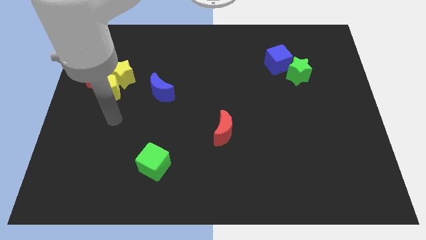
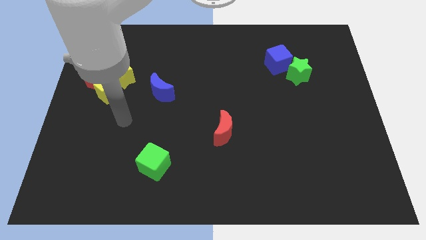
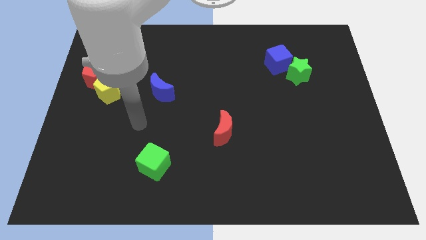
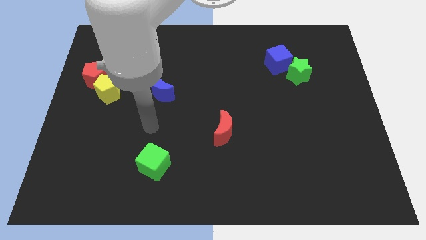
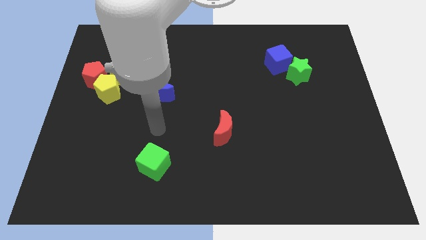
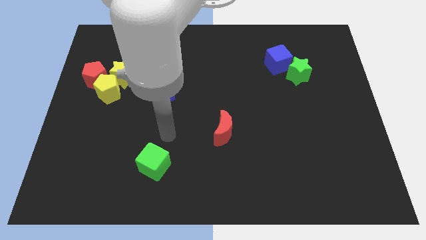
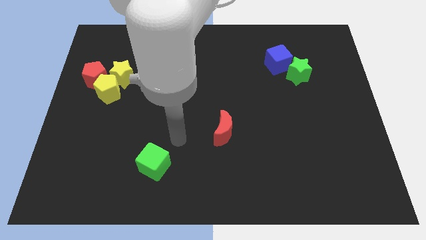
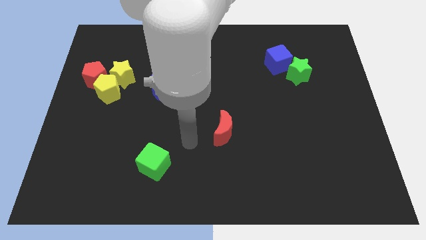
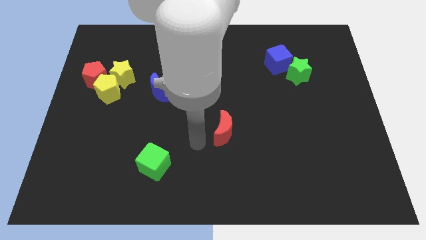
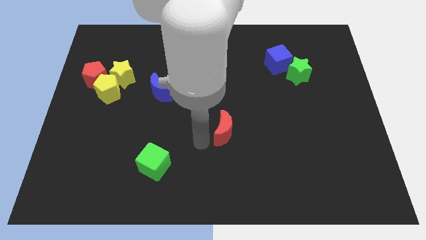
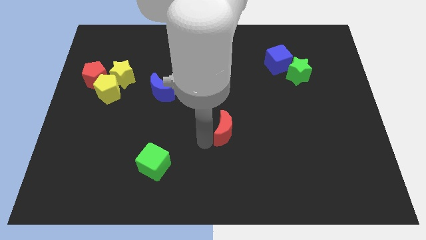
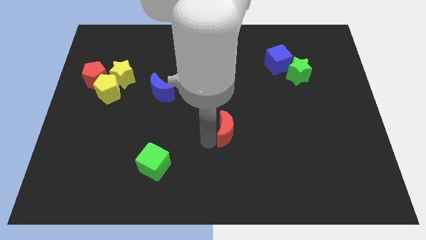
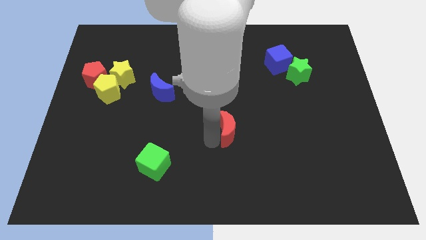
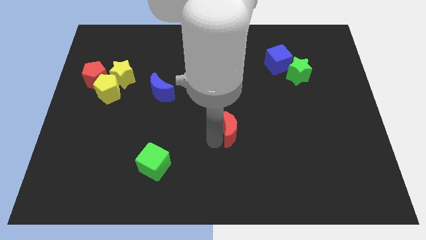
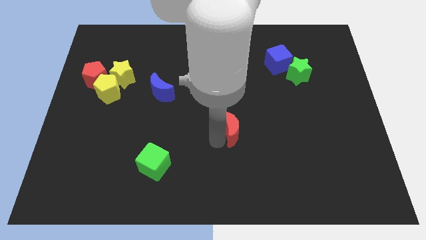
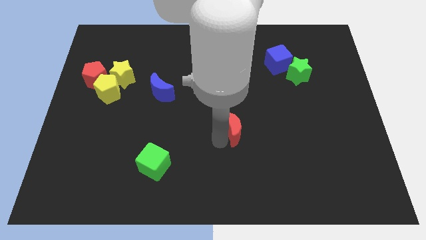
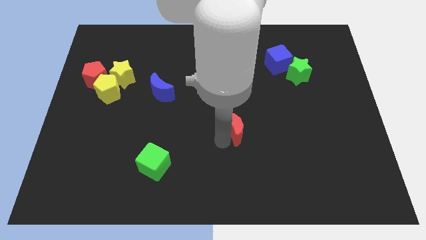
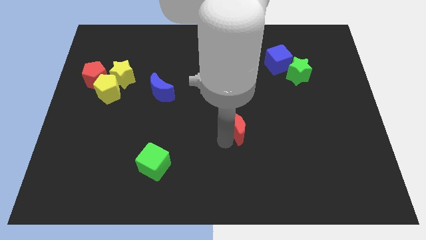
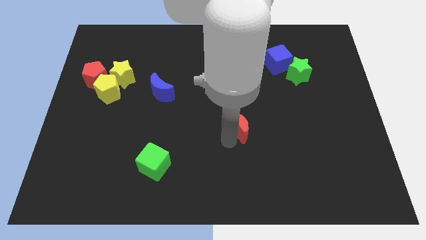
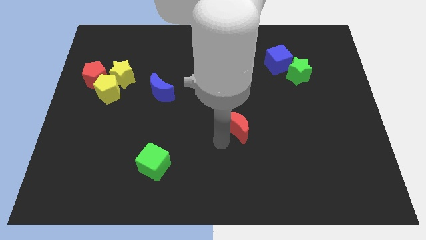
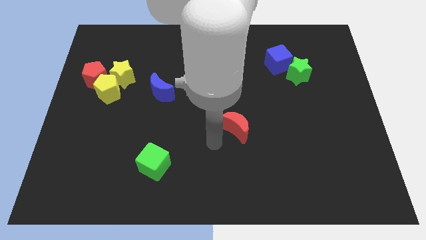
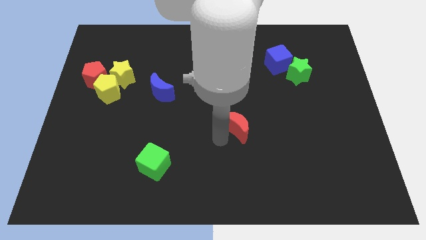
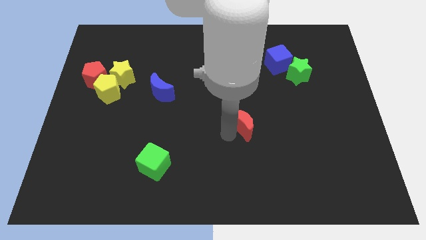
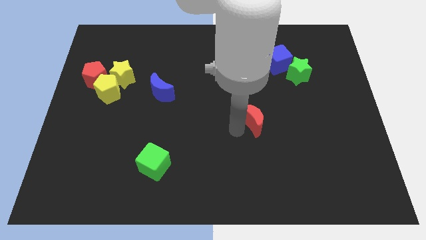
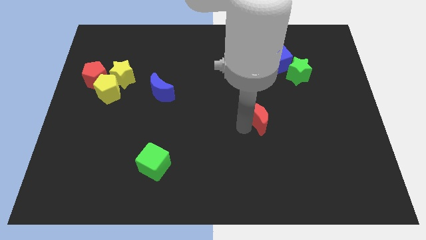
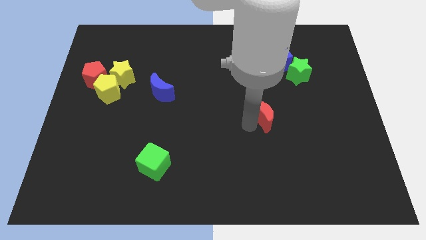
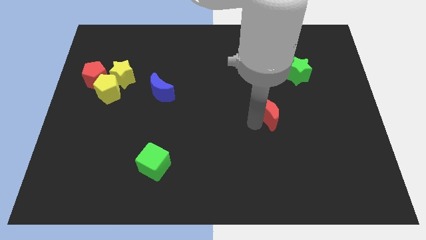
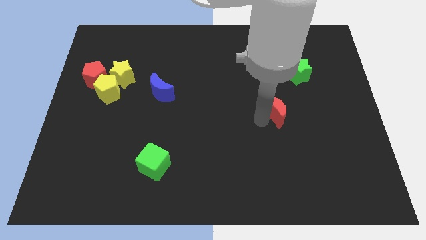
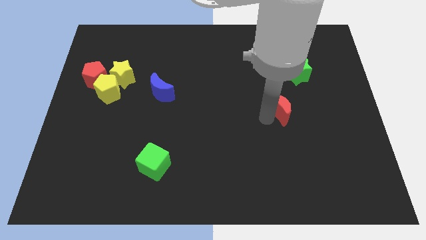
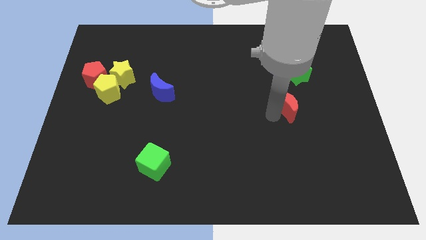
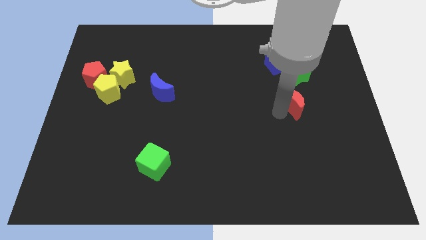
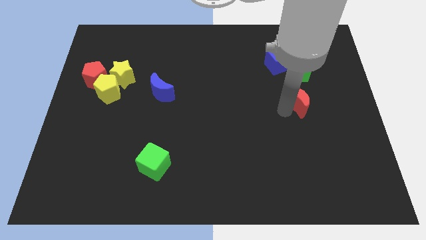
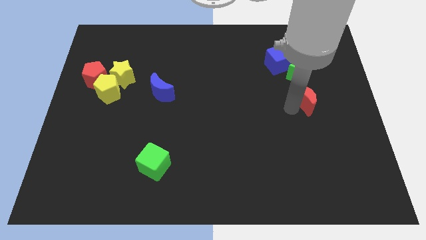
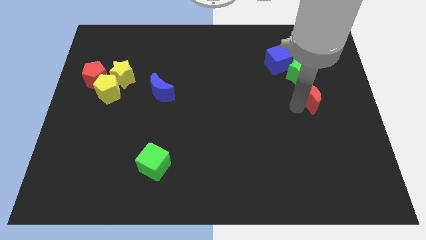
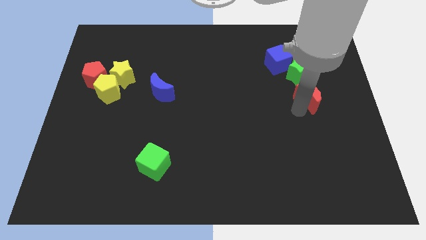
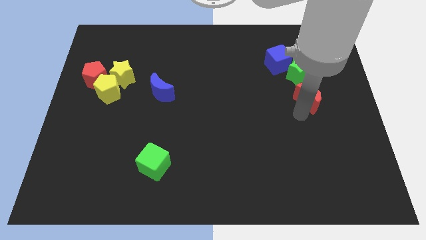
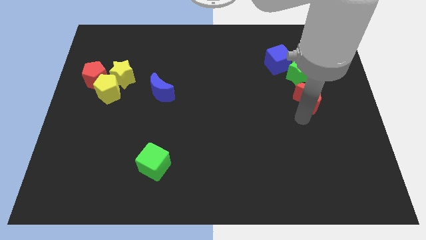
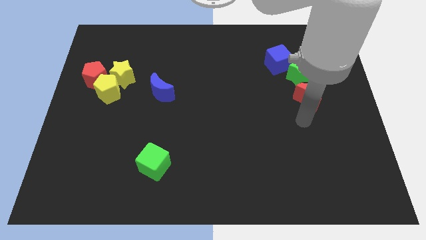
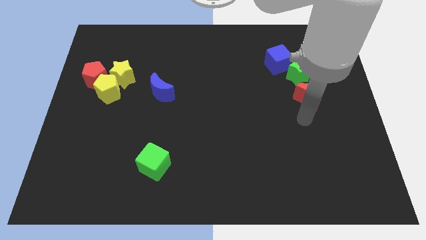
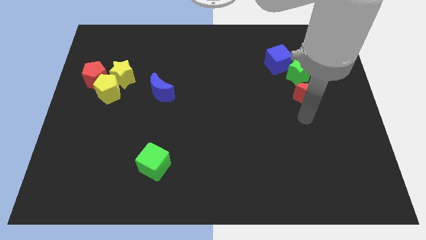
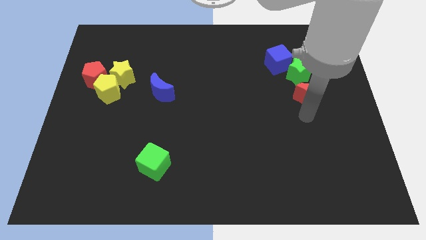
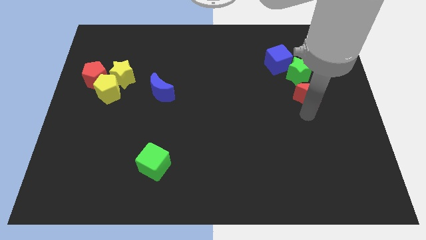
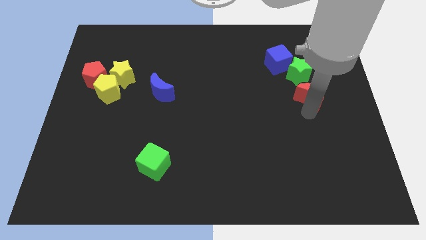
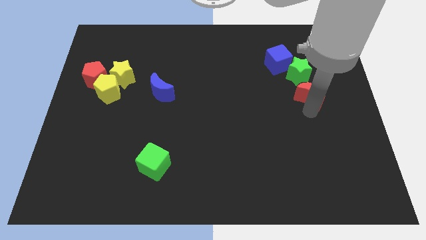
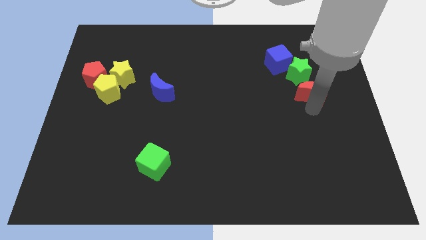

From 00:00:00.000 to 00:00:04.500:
slide the red moon upwards and right

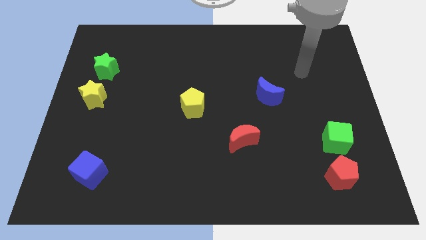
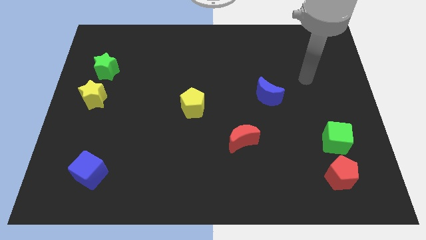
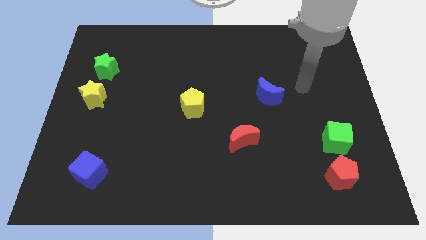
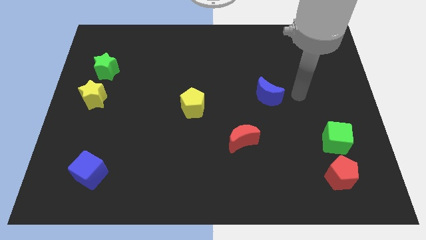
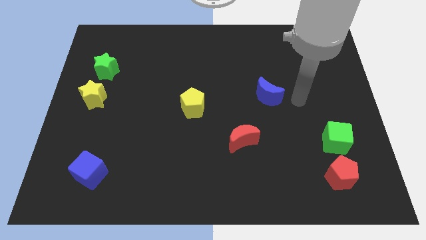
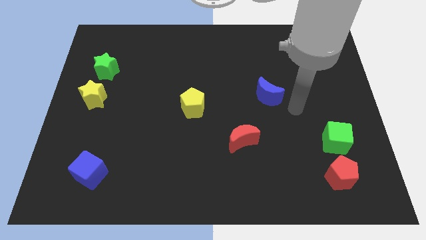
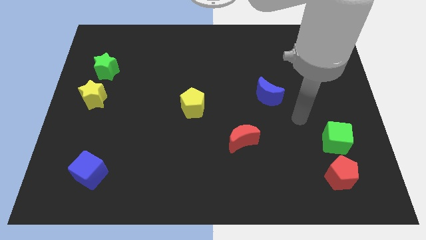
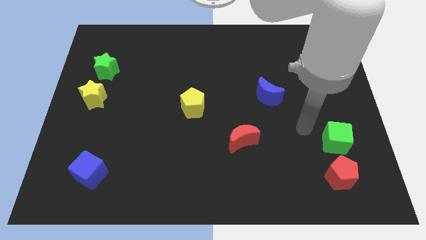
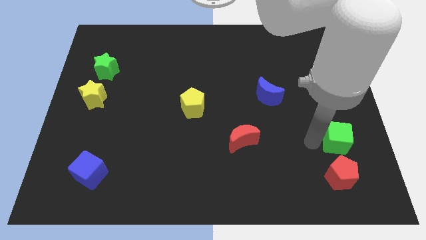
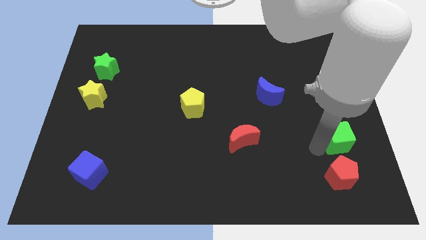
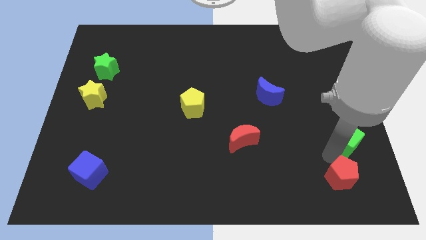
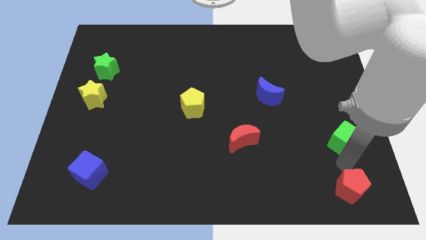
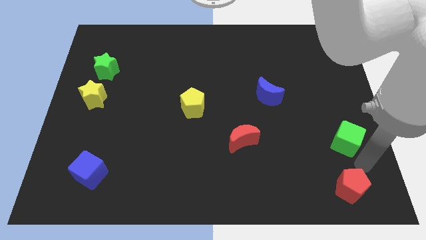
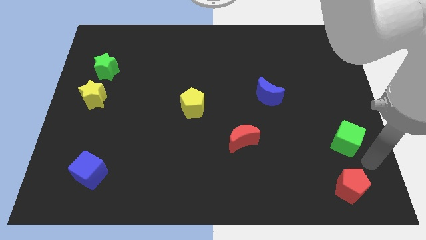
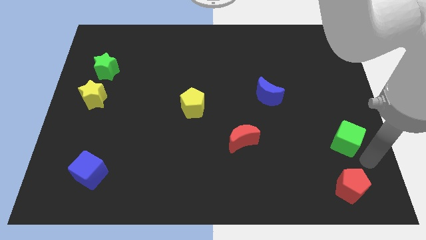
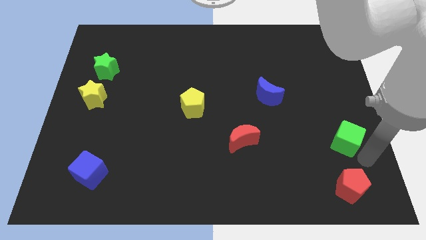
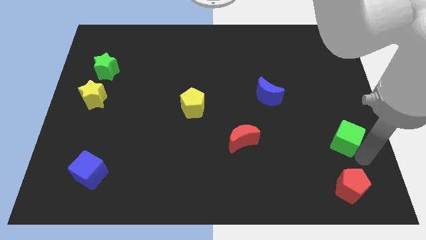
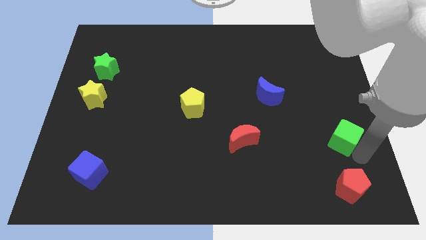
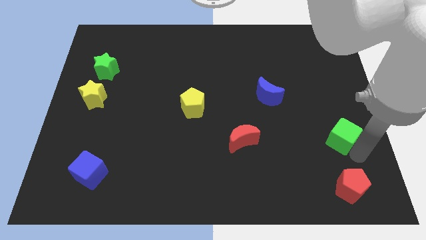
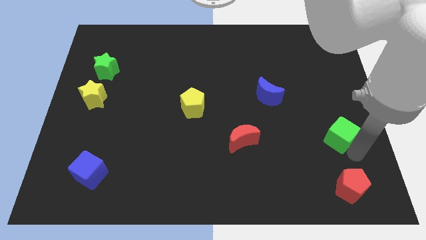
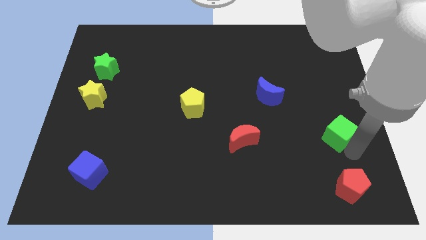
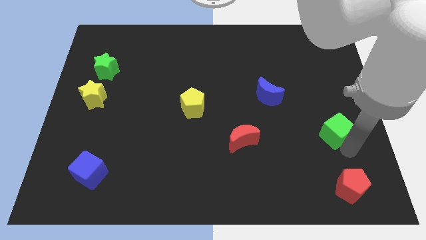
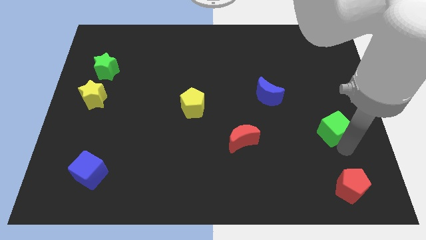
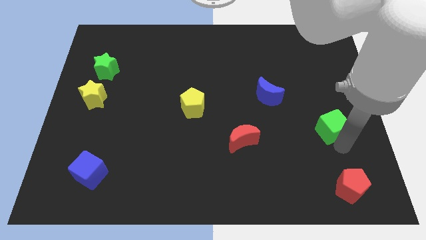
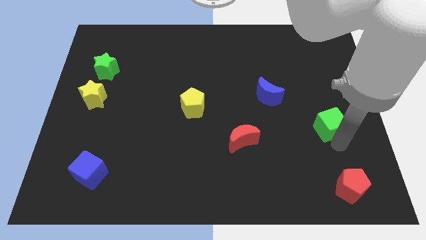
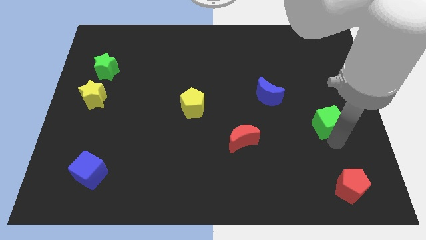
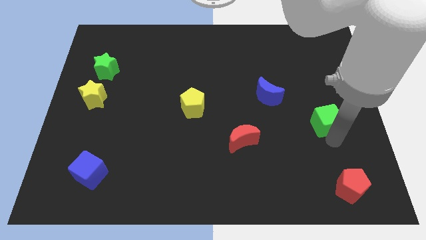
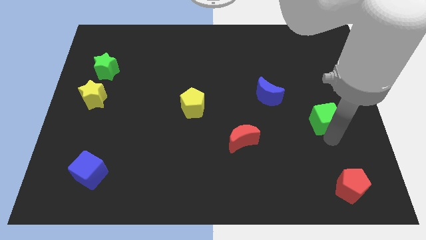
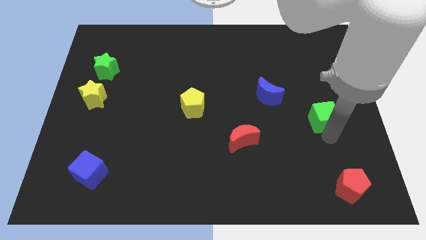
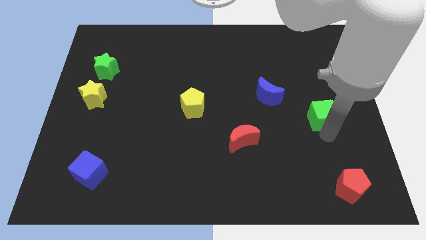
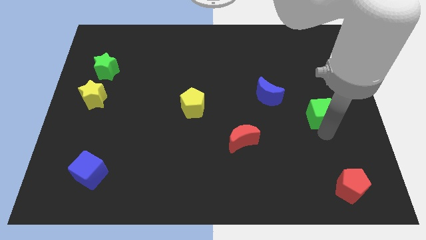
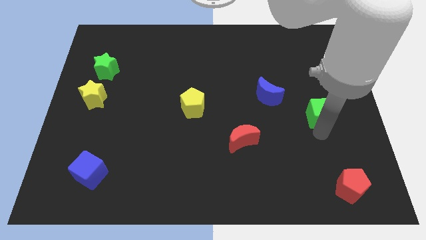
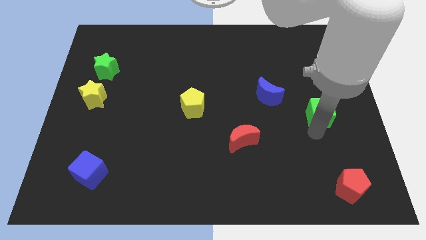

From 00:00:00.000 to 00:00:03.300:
slightly move the green cube upwards

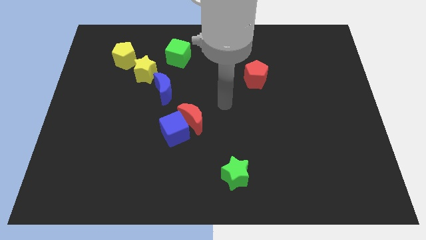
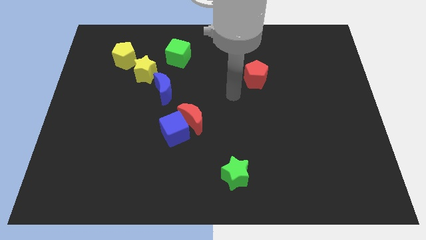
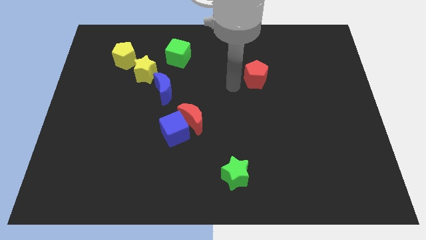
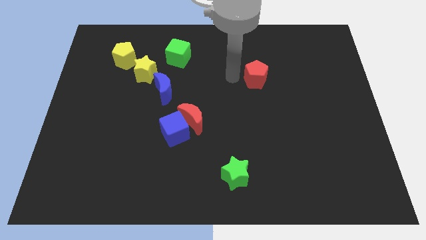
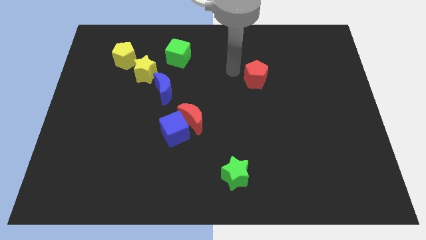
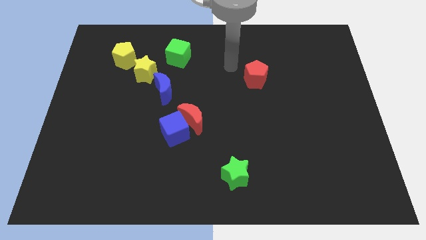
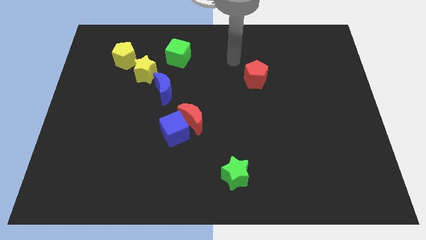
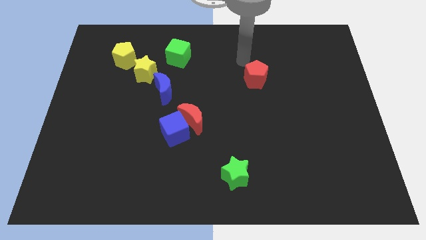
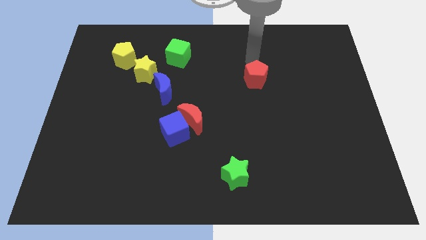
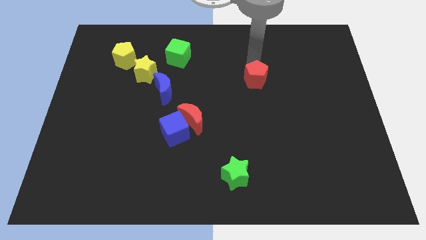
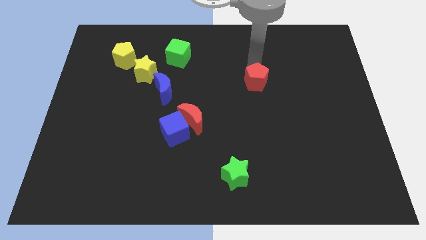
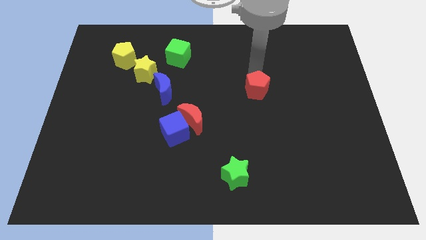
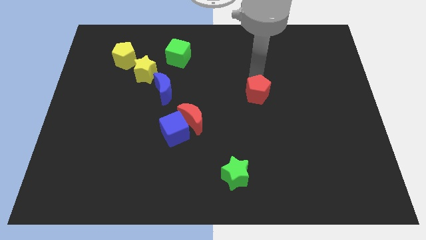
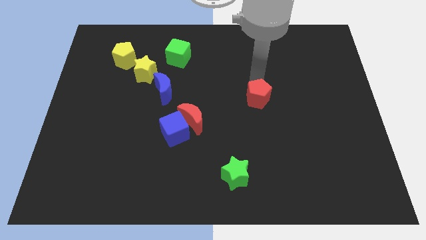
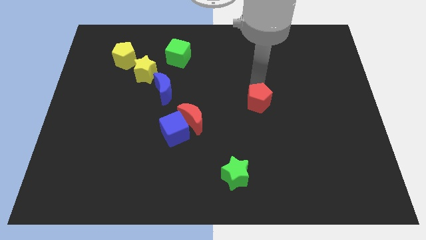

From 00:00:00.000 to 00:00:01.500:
push the red pentagon a little downwards
